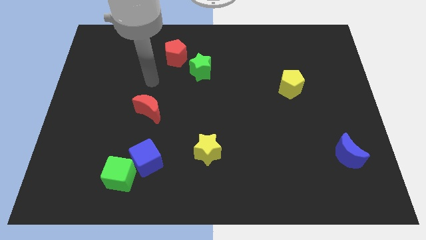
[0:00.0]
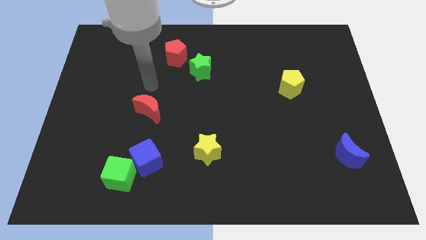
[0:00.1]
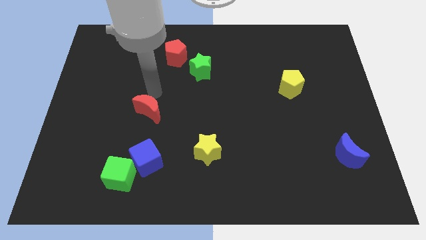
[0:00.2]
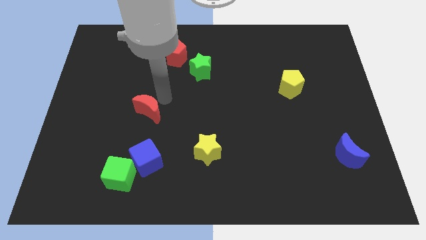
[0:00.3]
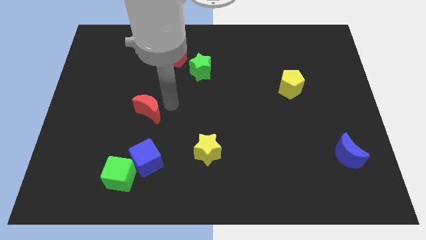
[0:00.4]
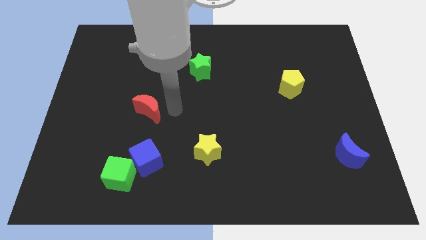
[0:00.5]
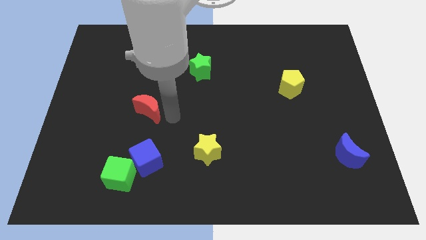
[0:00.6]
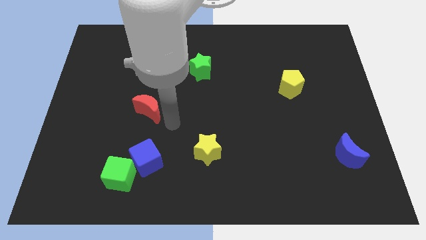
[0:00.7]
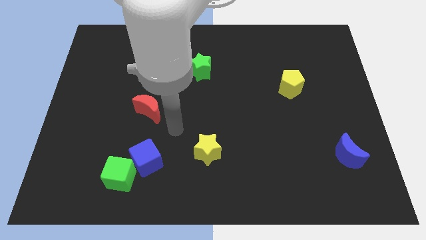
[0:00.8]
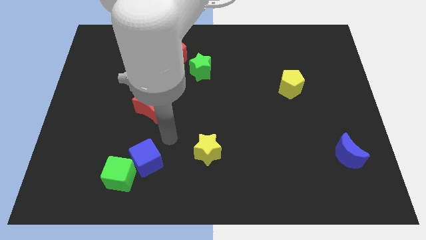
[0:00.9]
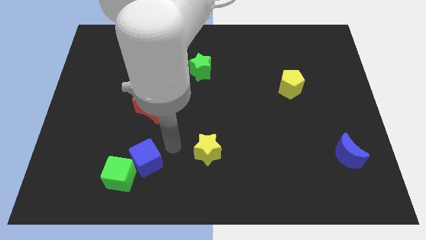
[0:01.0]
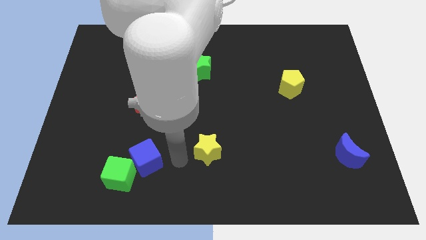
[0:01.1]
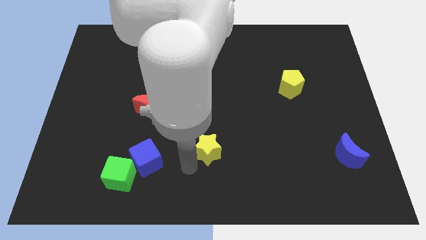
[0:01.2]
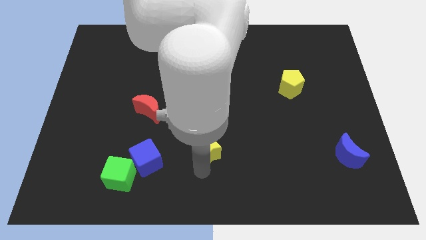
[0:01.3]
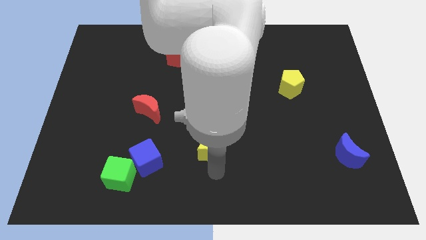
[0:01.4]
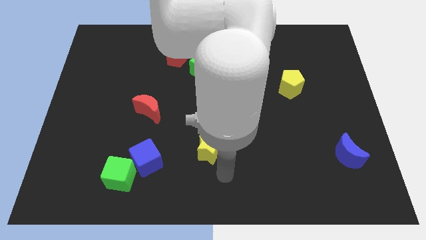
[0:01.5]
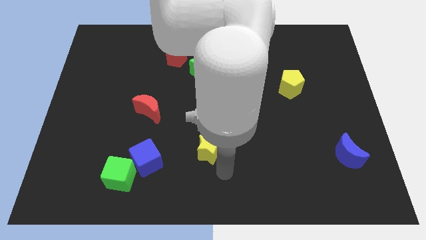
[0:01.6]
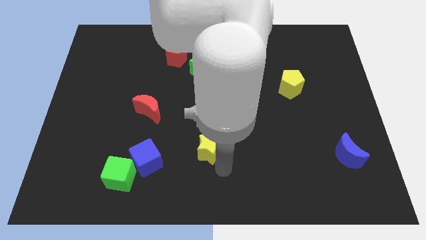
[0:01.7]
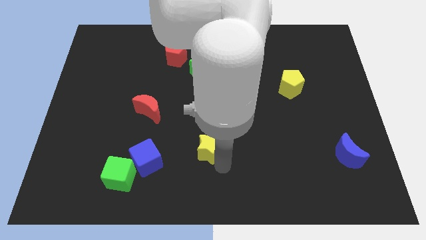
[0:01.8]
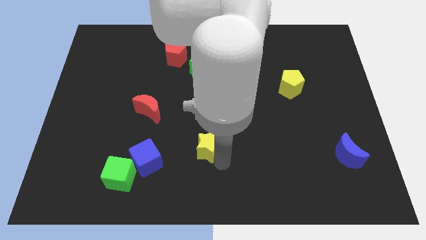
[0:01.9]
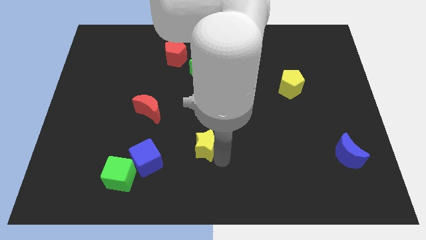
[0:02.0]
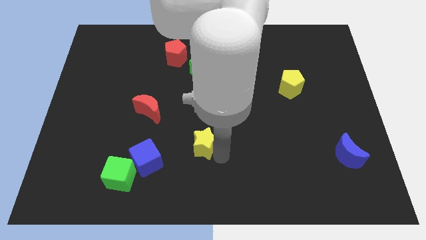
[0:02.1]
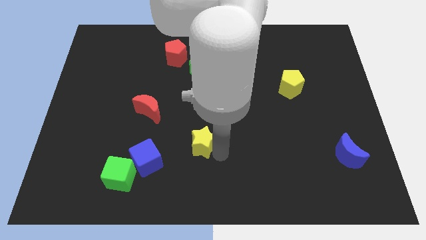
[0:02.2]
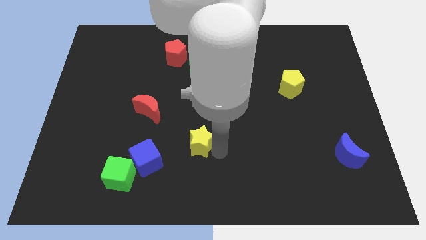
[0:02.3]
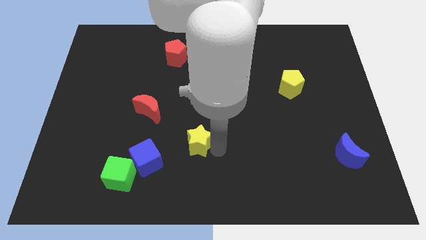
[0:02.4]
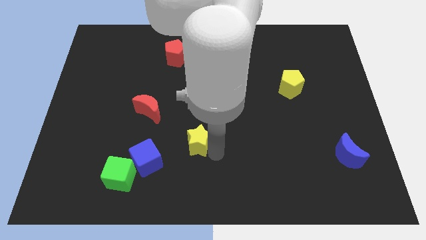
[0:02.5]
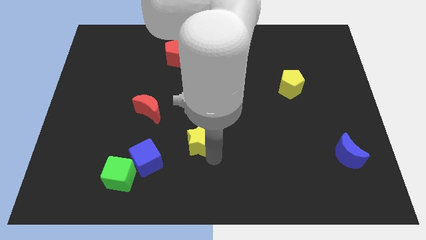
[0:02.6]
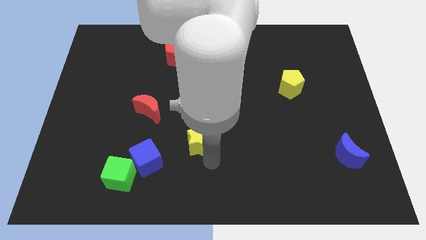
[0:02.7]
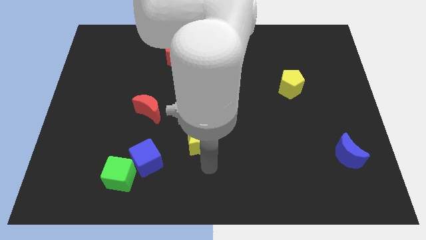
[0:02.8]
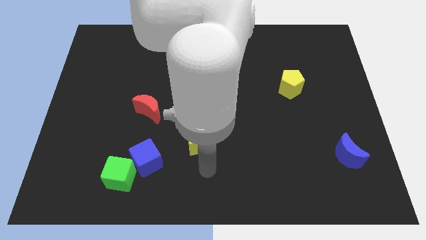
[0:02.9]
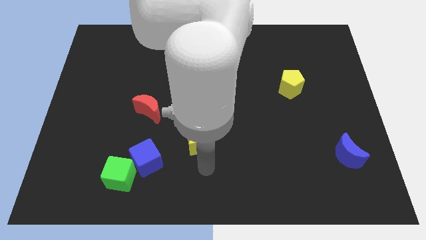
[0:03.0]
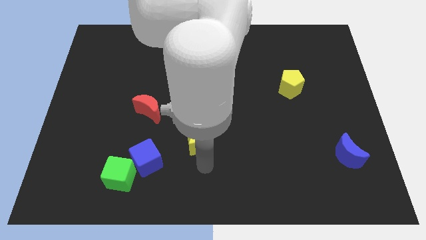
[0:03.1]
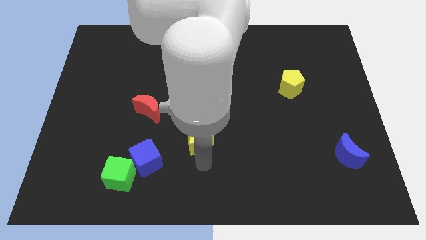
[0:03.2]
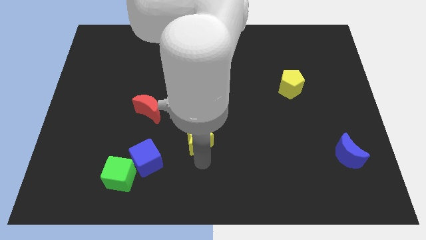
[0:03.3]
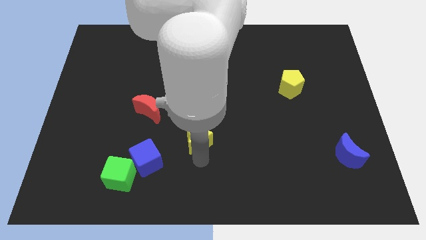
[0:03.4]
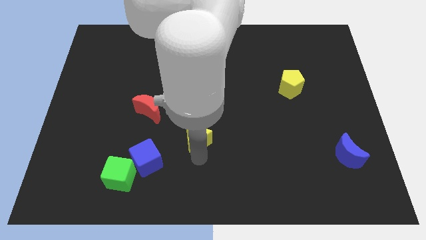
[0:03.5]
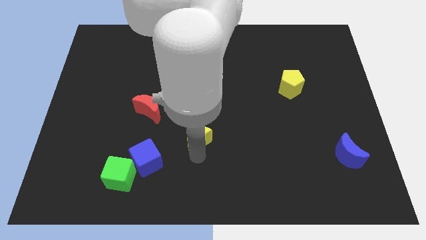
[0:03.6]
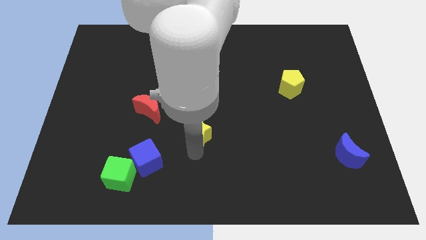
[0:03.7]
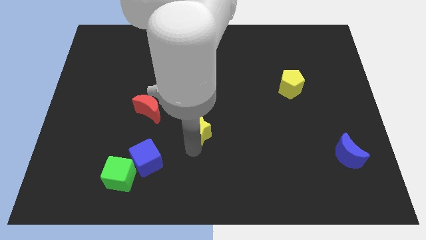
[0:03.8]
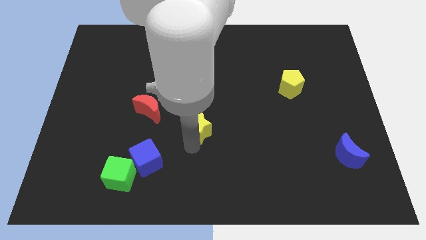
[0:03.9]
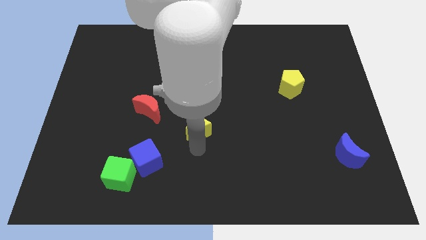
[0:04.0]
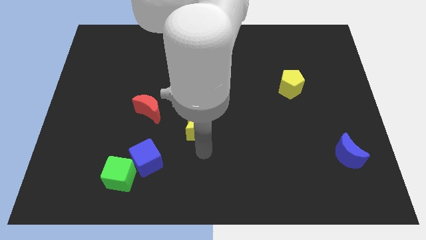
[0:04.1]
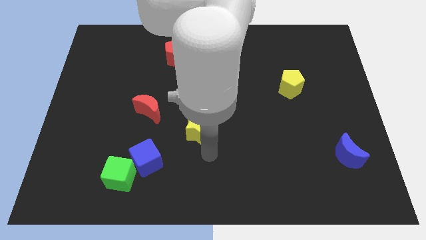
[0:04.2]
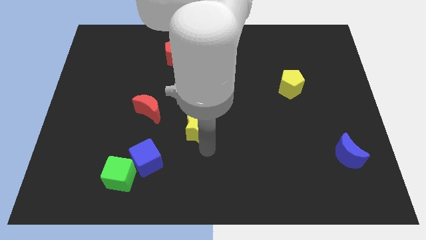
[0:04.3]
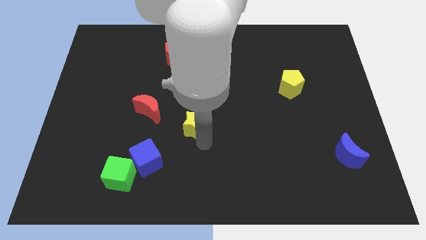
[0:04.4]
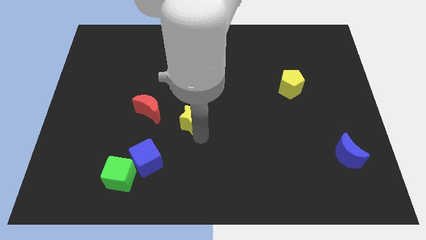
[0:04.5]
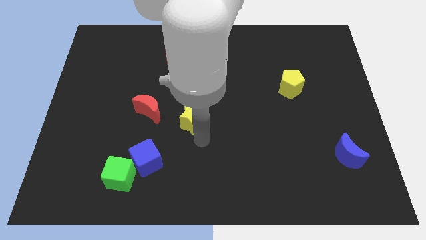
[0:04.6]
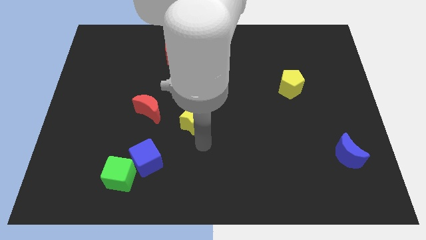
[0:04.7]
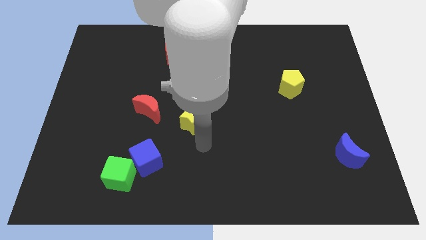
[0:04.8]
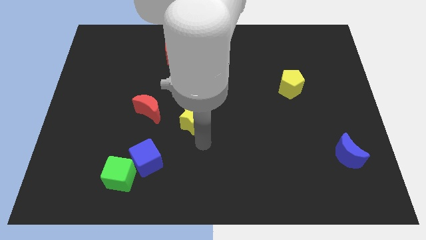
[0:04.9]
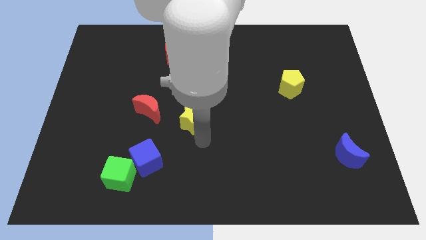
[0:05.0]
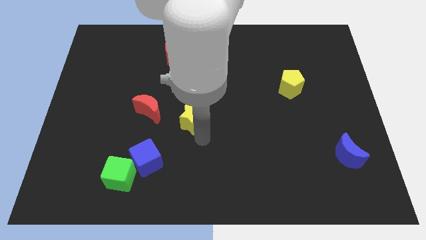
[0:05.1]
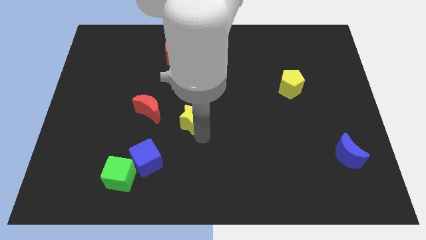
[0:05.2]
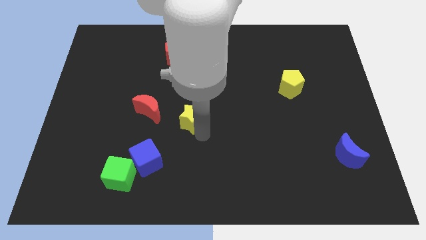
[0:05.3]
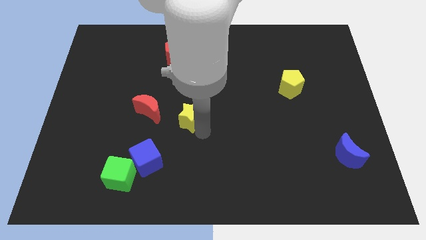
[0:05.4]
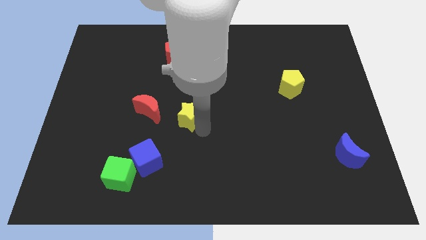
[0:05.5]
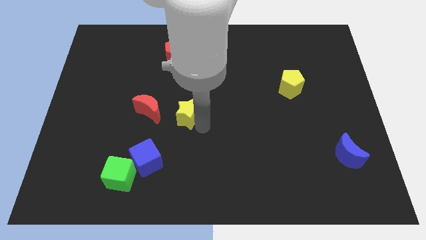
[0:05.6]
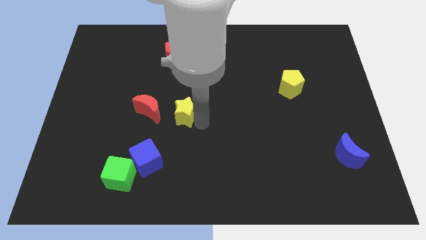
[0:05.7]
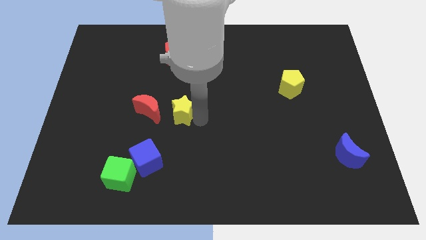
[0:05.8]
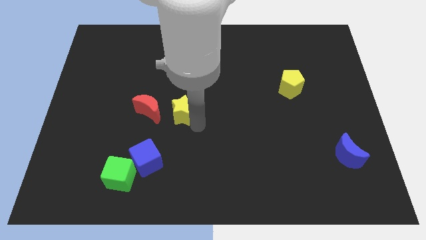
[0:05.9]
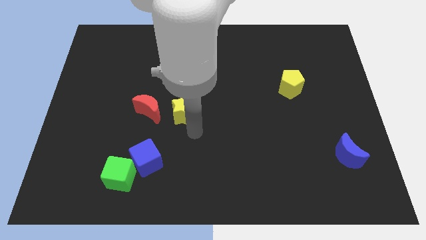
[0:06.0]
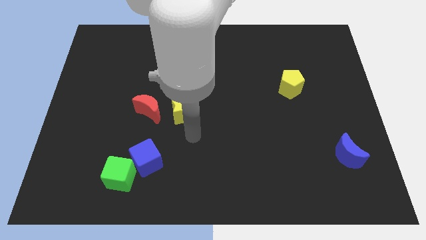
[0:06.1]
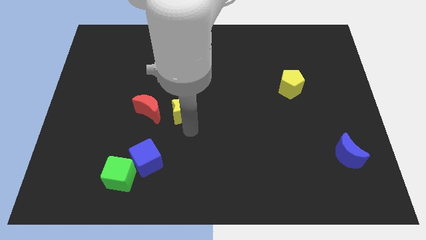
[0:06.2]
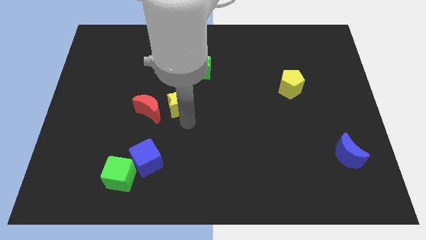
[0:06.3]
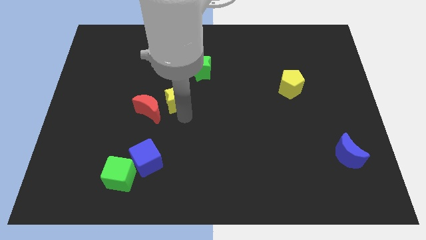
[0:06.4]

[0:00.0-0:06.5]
slide the yellow star to the bottom side of the red pentagon
